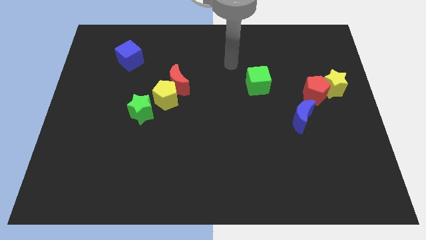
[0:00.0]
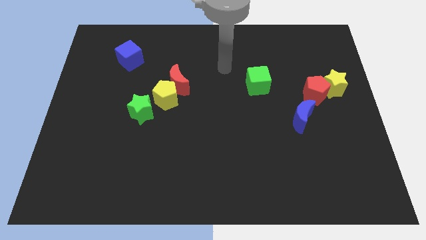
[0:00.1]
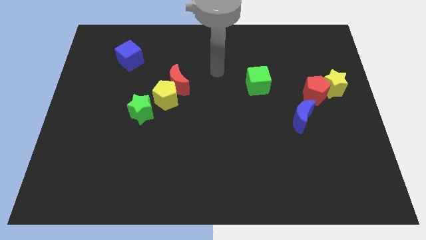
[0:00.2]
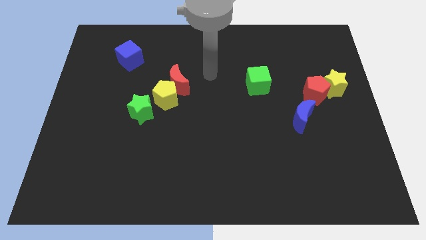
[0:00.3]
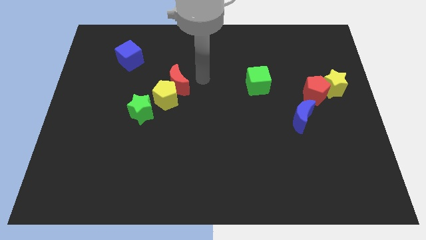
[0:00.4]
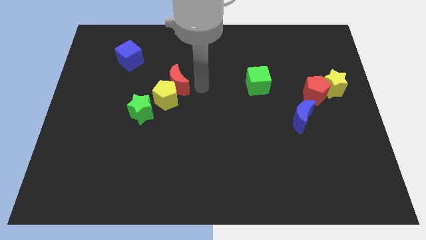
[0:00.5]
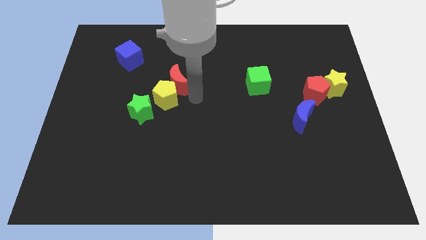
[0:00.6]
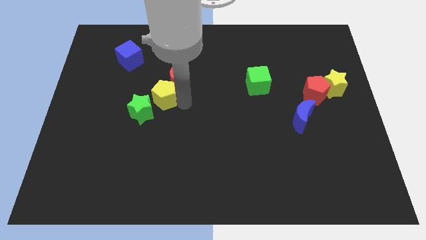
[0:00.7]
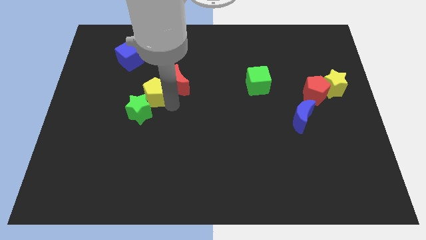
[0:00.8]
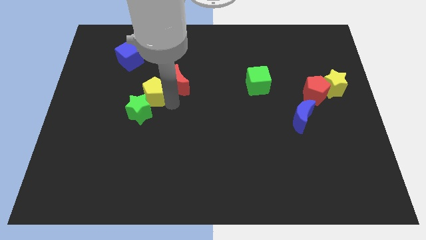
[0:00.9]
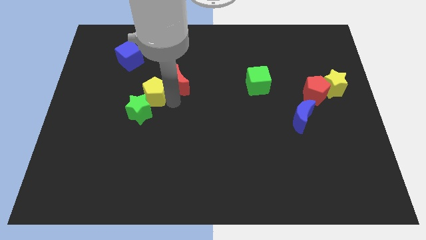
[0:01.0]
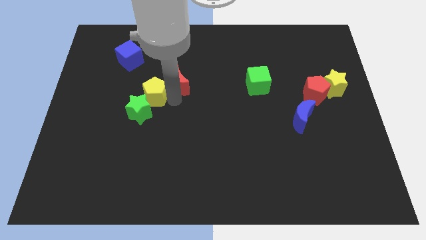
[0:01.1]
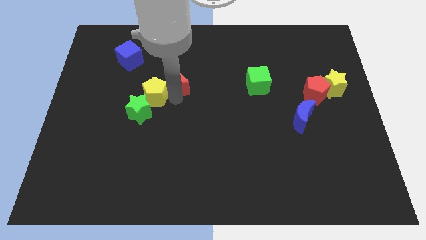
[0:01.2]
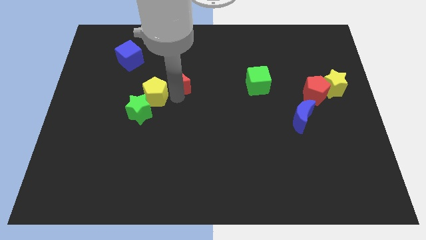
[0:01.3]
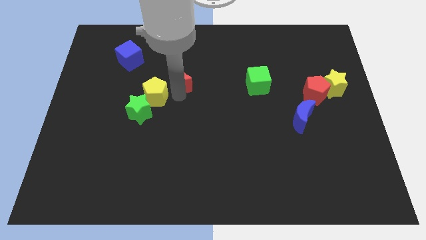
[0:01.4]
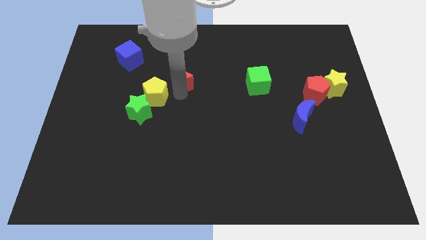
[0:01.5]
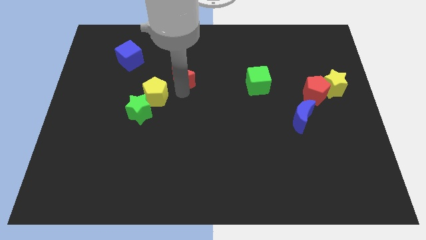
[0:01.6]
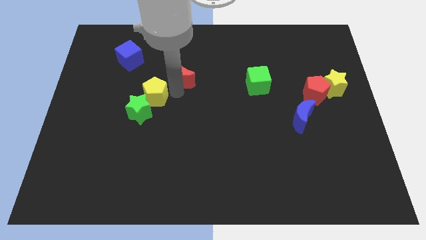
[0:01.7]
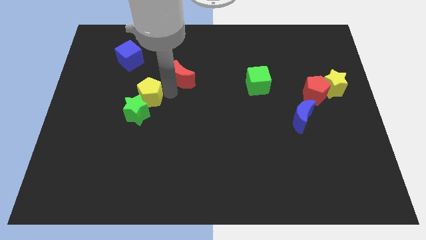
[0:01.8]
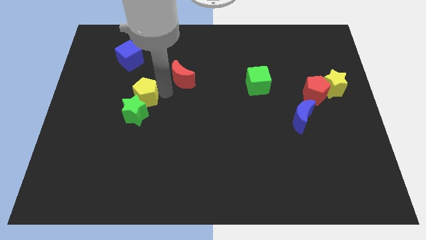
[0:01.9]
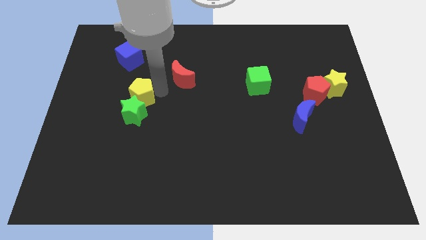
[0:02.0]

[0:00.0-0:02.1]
separate the red moon from the yellow pentagon

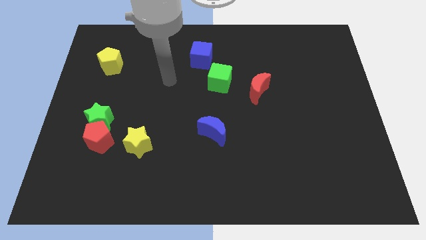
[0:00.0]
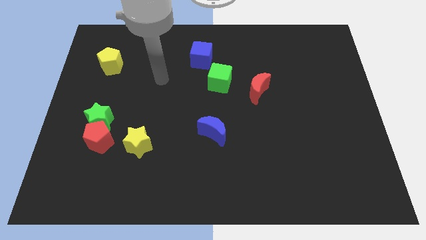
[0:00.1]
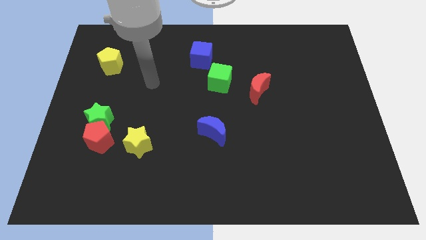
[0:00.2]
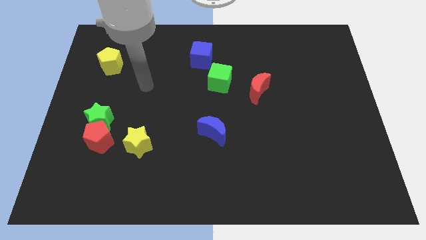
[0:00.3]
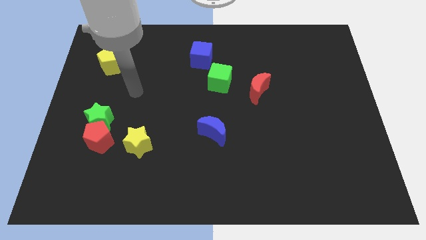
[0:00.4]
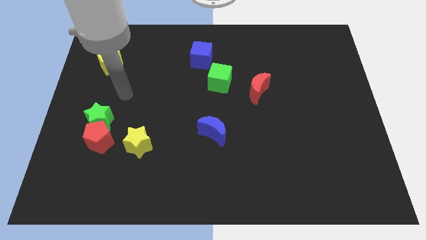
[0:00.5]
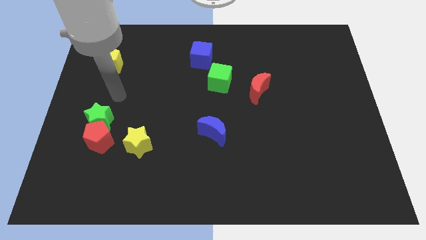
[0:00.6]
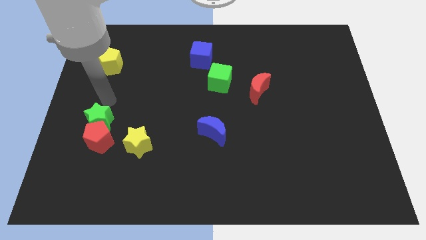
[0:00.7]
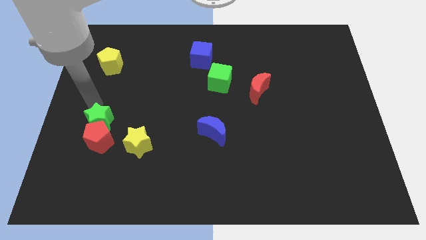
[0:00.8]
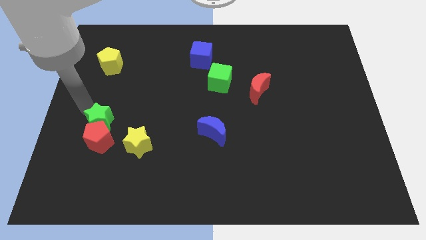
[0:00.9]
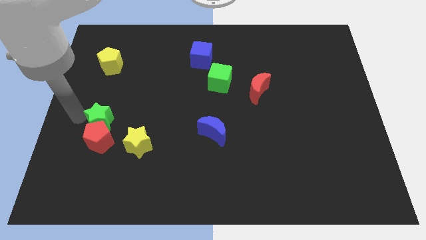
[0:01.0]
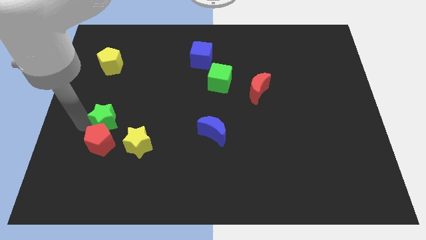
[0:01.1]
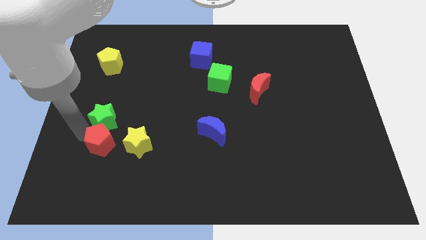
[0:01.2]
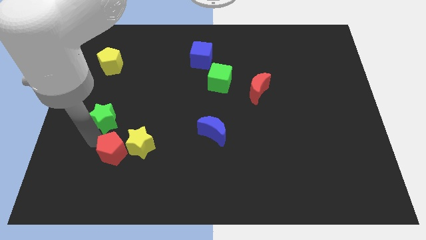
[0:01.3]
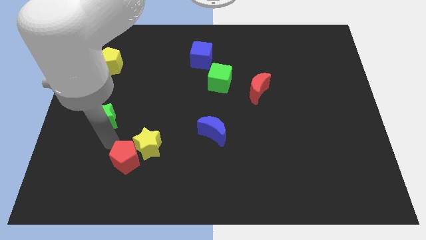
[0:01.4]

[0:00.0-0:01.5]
move the green star away from the red pentagon

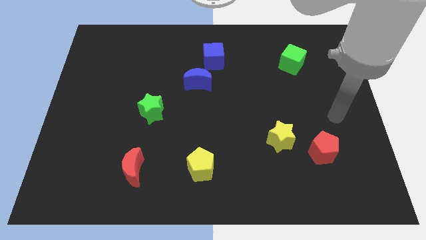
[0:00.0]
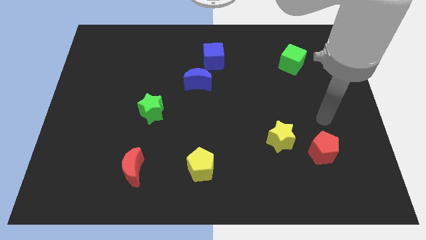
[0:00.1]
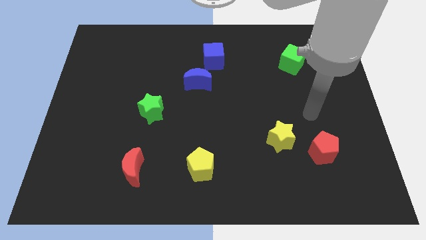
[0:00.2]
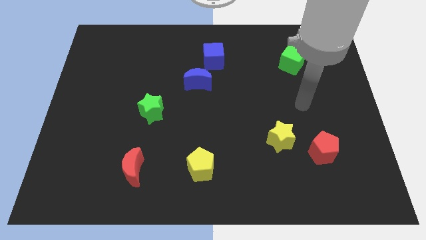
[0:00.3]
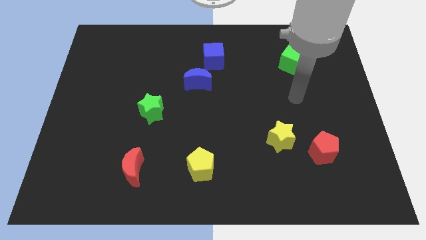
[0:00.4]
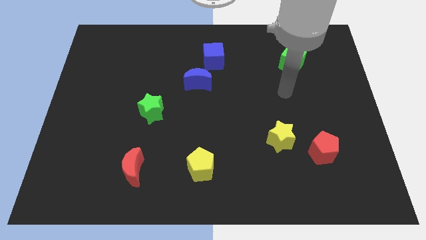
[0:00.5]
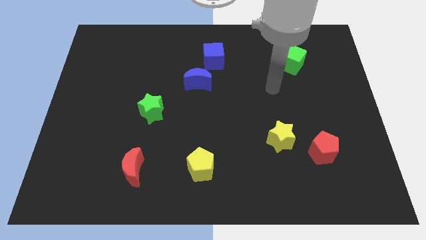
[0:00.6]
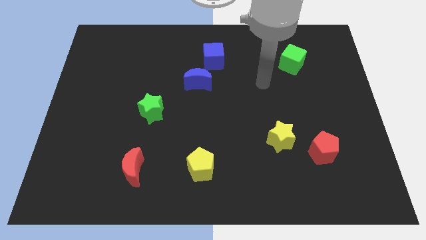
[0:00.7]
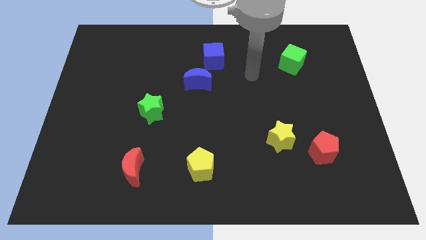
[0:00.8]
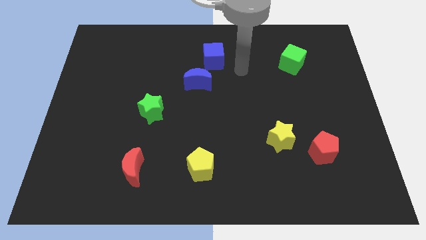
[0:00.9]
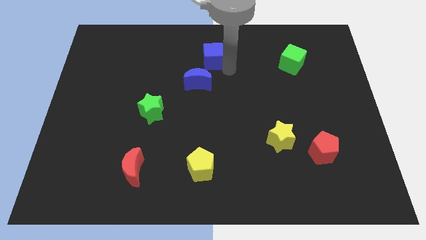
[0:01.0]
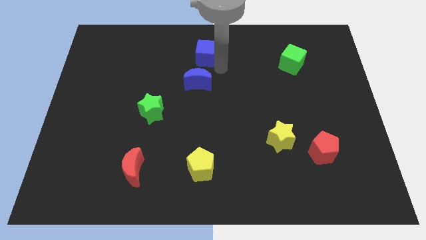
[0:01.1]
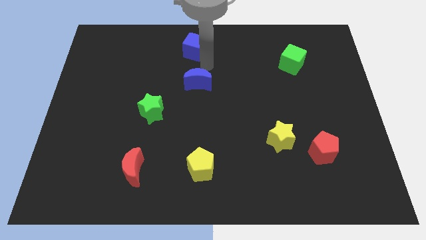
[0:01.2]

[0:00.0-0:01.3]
pull the blue moon apart from the blue cube

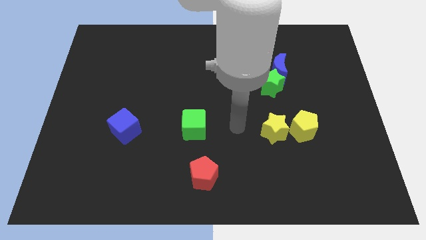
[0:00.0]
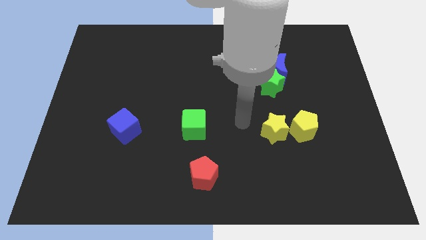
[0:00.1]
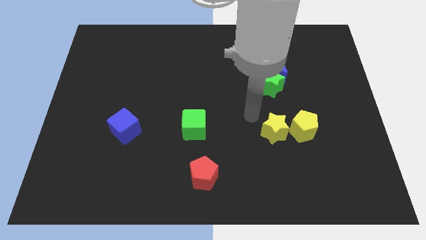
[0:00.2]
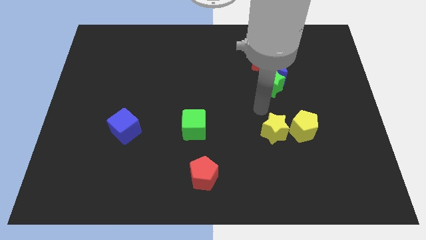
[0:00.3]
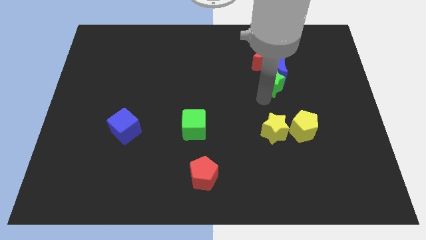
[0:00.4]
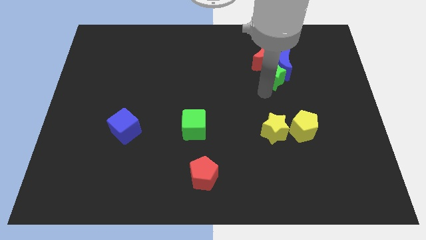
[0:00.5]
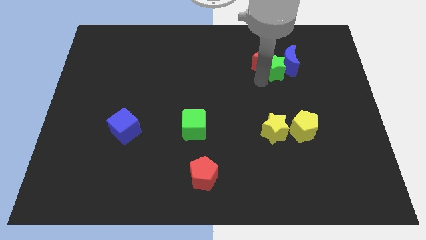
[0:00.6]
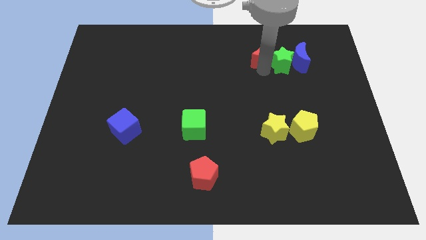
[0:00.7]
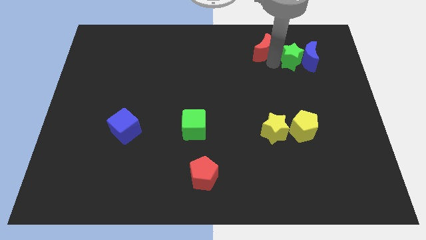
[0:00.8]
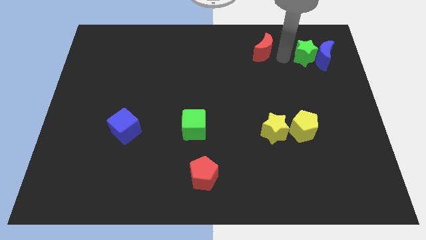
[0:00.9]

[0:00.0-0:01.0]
move the blue moon away from the red moon and green star

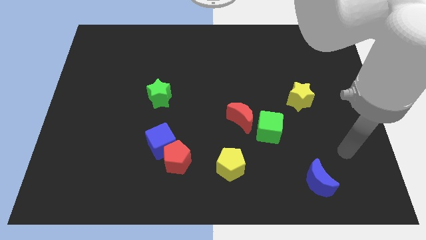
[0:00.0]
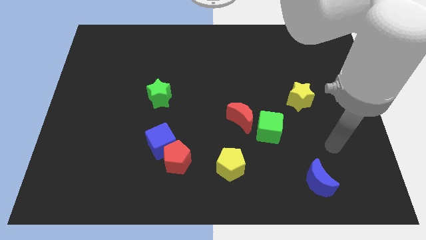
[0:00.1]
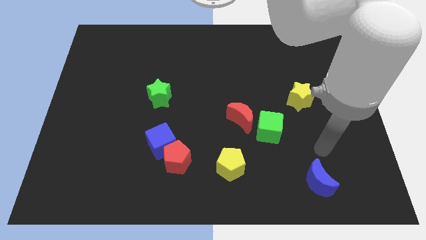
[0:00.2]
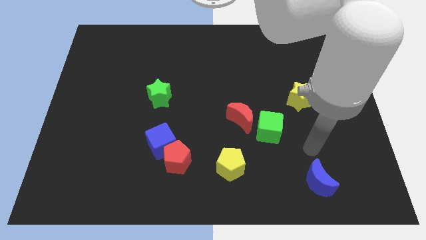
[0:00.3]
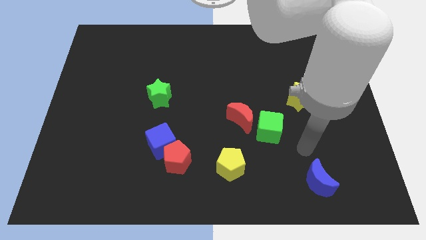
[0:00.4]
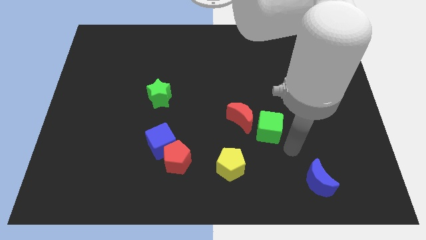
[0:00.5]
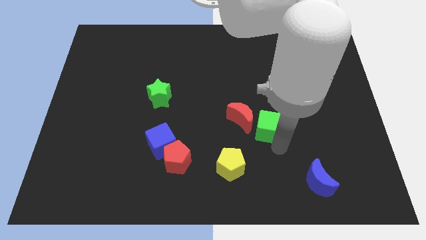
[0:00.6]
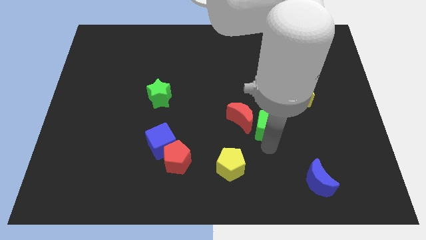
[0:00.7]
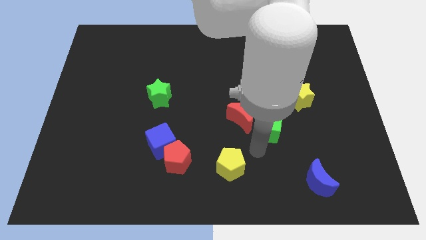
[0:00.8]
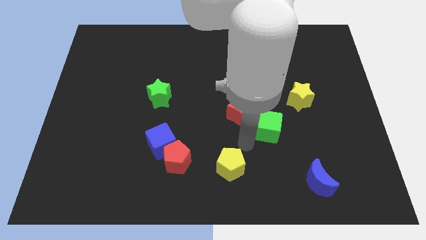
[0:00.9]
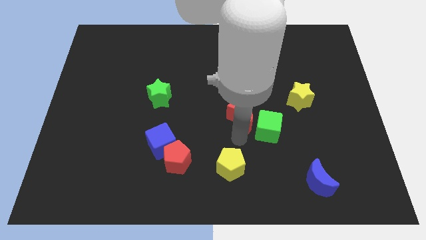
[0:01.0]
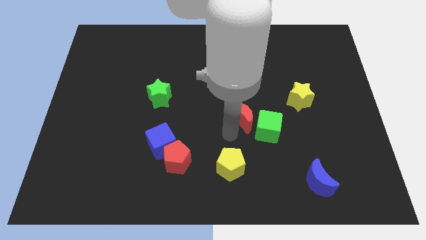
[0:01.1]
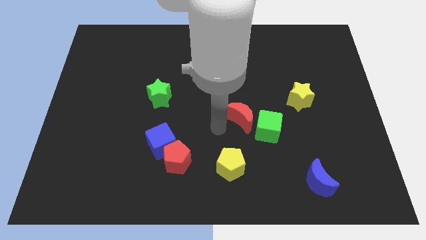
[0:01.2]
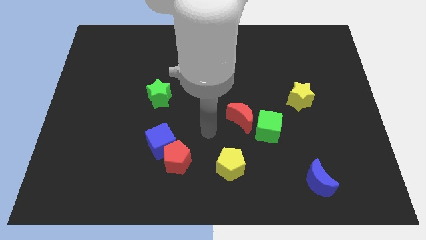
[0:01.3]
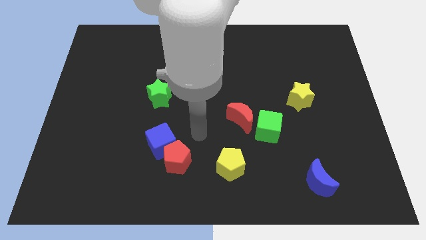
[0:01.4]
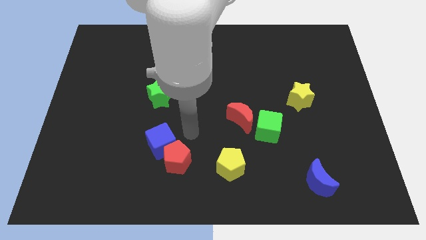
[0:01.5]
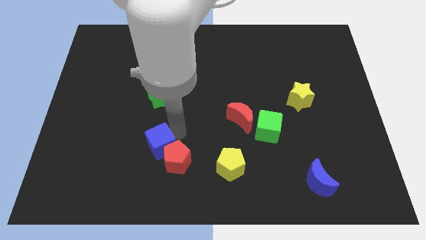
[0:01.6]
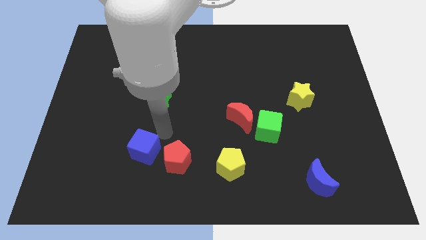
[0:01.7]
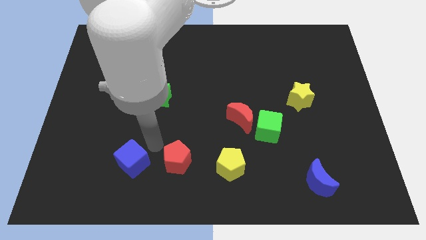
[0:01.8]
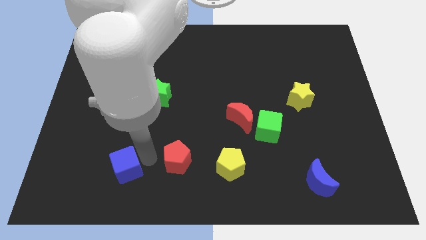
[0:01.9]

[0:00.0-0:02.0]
move the red pentagon away from the blue cube

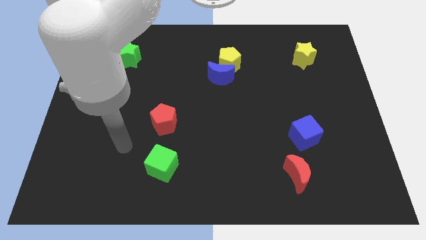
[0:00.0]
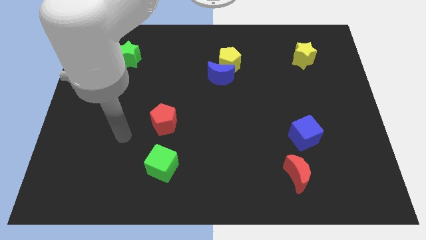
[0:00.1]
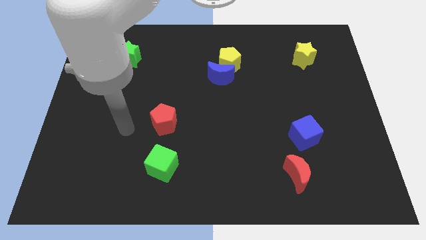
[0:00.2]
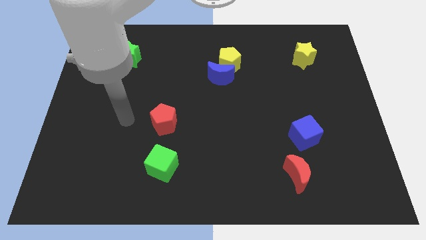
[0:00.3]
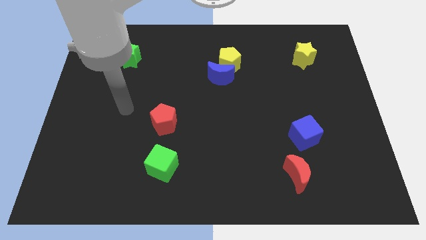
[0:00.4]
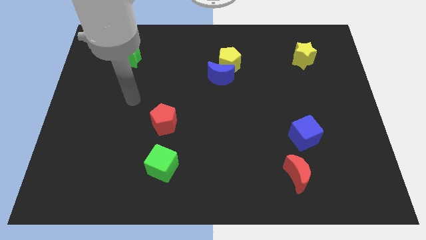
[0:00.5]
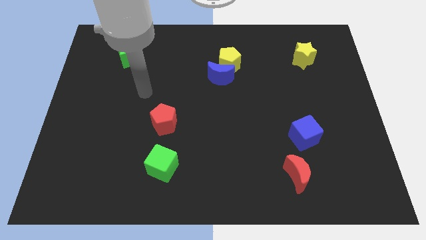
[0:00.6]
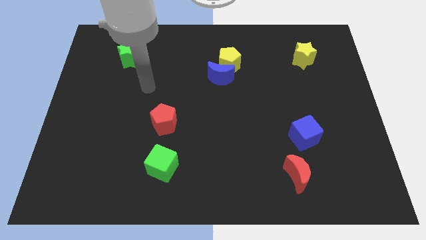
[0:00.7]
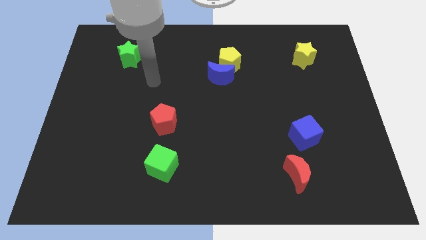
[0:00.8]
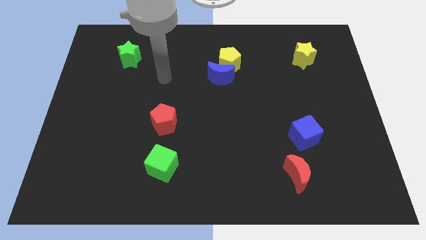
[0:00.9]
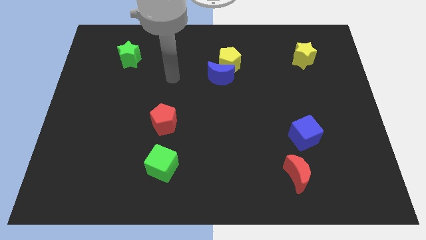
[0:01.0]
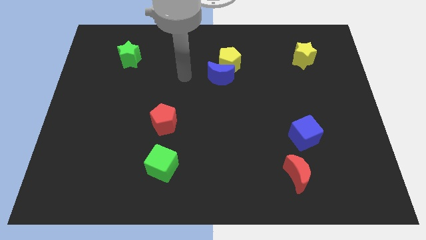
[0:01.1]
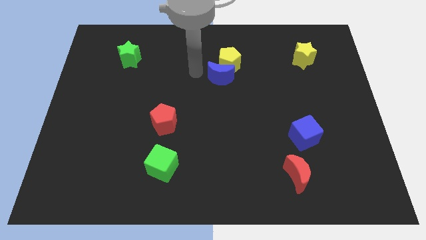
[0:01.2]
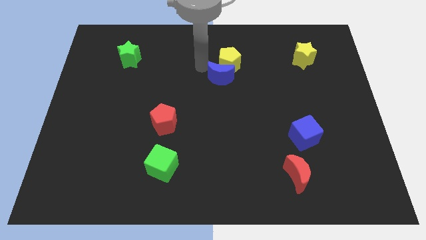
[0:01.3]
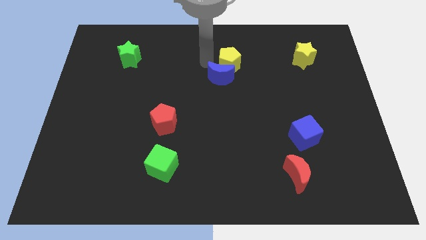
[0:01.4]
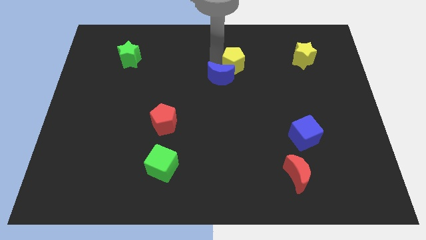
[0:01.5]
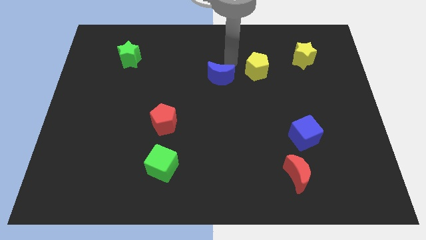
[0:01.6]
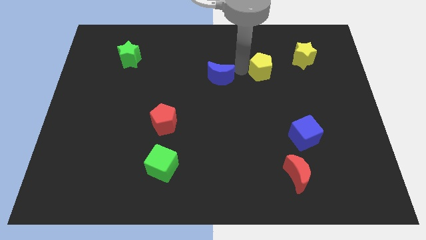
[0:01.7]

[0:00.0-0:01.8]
separate the blue moon from the yellow pentagon
